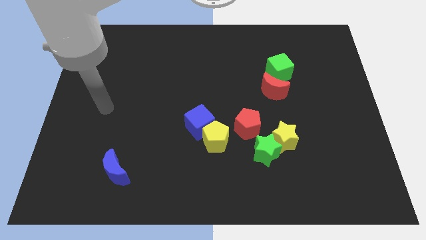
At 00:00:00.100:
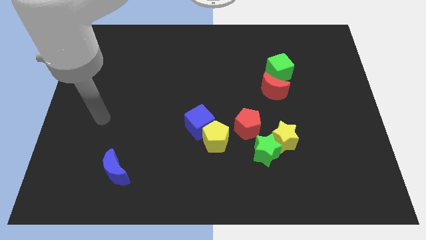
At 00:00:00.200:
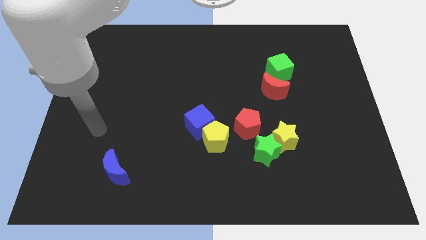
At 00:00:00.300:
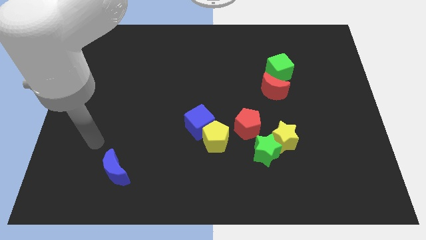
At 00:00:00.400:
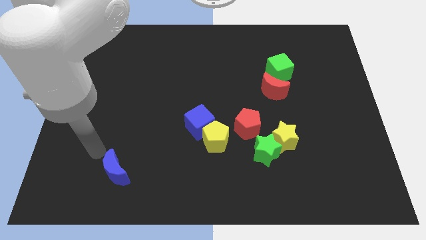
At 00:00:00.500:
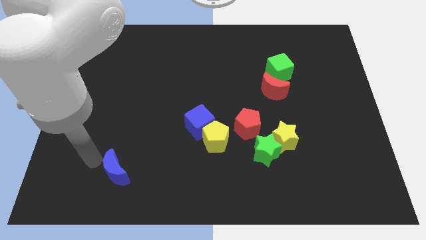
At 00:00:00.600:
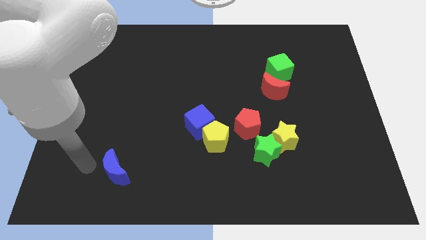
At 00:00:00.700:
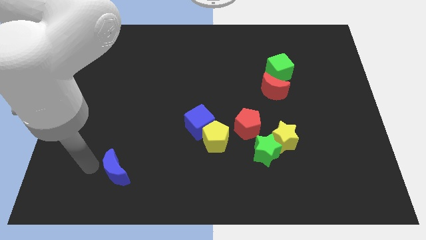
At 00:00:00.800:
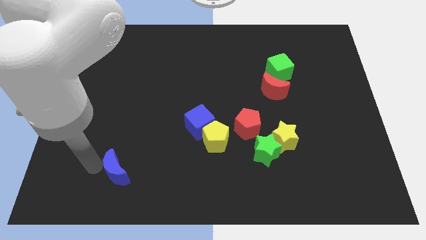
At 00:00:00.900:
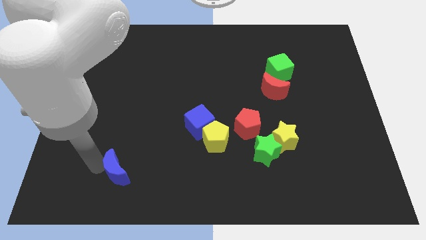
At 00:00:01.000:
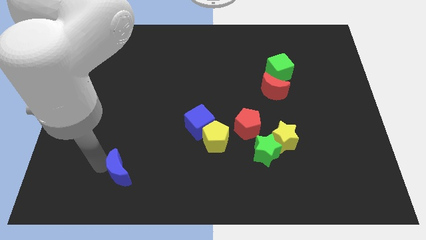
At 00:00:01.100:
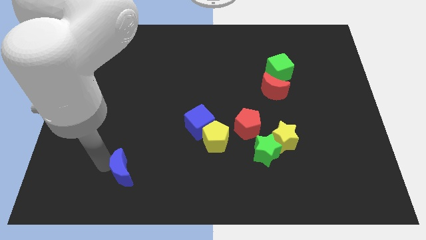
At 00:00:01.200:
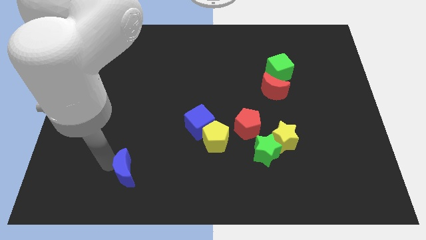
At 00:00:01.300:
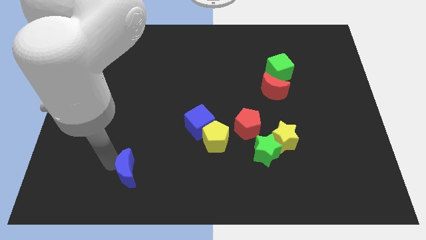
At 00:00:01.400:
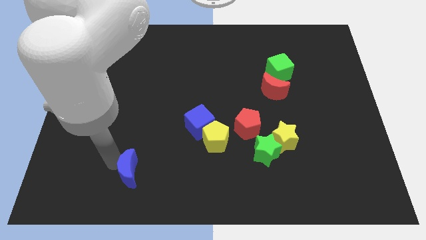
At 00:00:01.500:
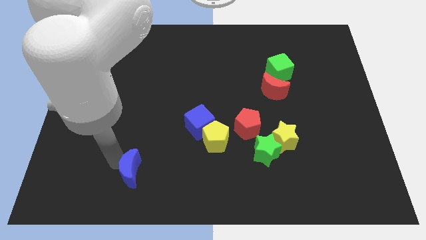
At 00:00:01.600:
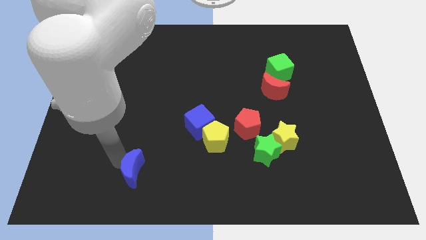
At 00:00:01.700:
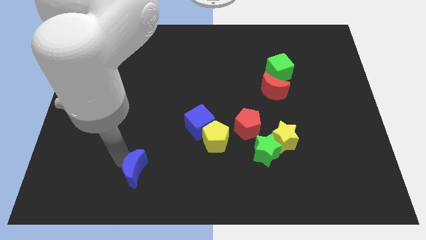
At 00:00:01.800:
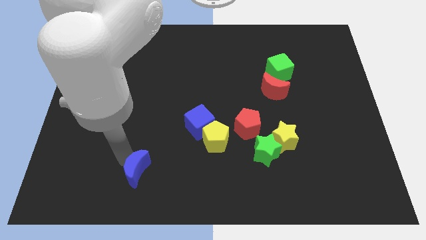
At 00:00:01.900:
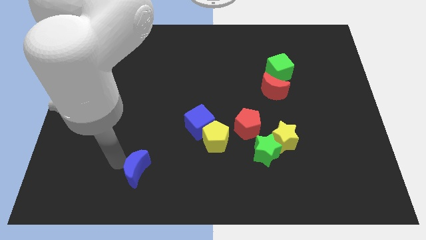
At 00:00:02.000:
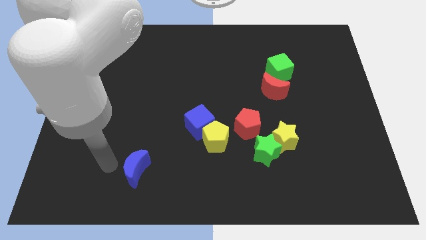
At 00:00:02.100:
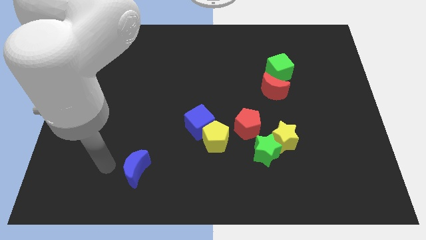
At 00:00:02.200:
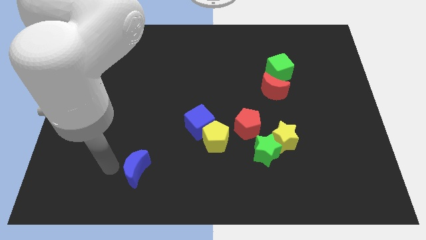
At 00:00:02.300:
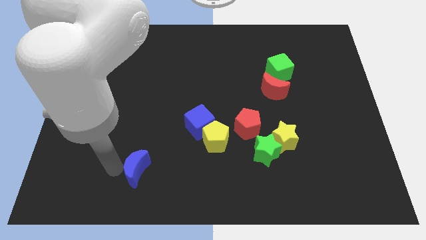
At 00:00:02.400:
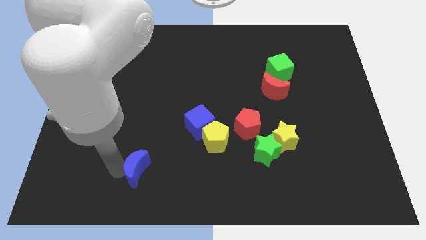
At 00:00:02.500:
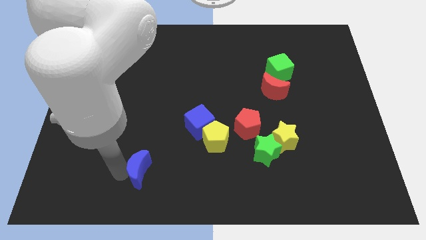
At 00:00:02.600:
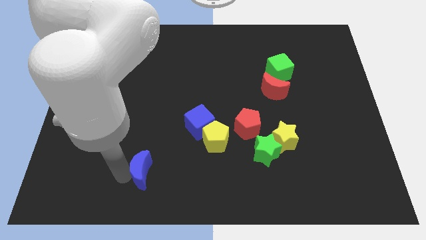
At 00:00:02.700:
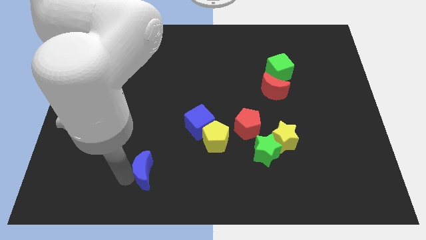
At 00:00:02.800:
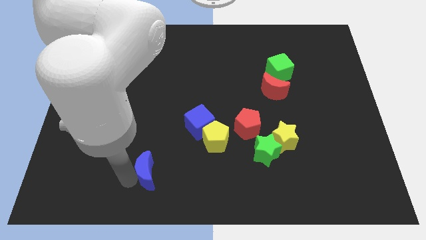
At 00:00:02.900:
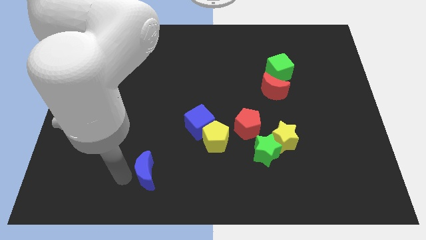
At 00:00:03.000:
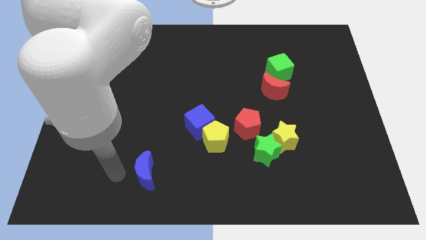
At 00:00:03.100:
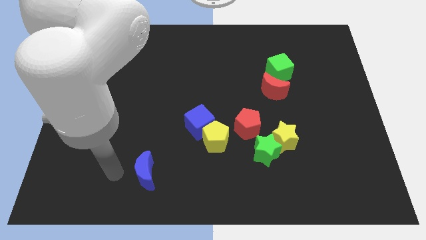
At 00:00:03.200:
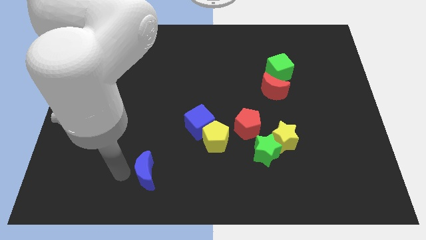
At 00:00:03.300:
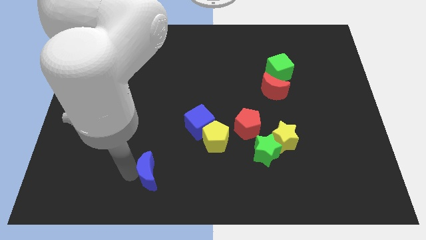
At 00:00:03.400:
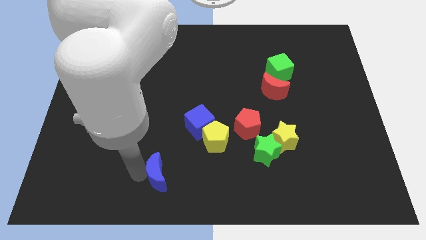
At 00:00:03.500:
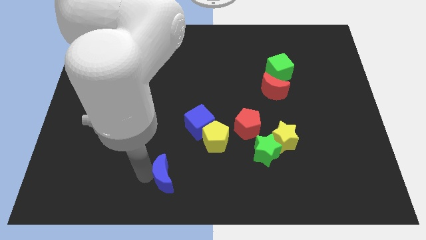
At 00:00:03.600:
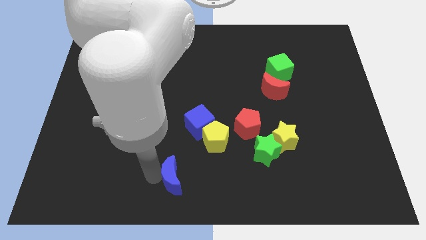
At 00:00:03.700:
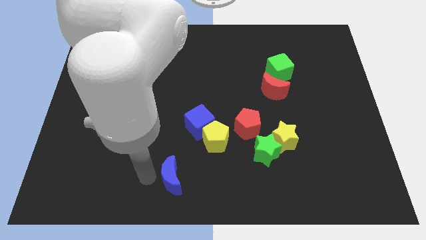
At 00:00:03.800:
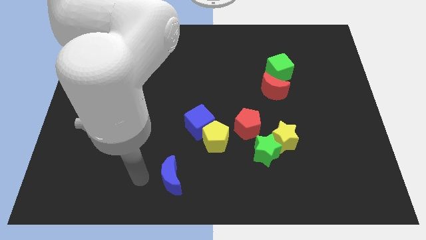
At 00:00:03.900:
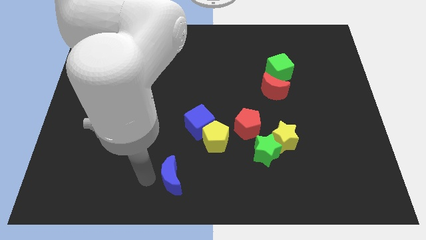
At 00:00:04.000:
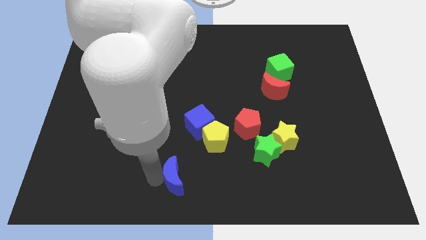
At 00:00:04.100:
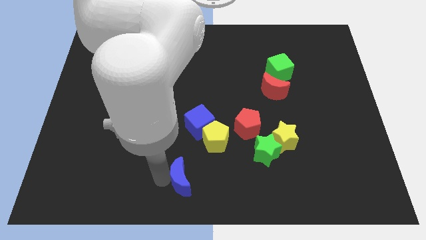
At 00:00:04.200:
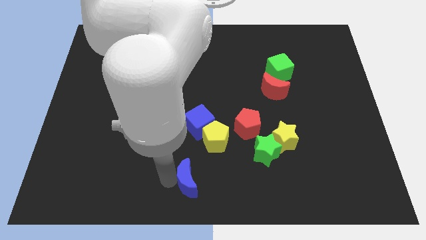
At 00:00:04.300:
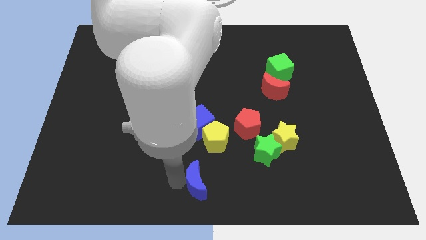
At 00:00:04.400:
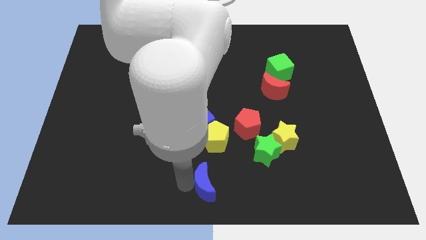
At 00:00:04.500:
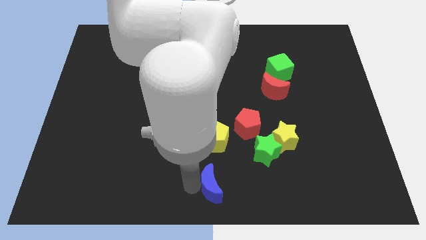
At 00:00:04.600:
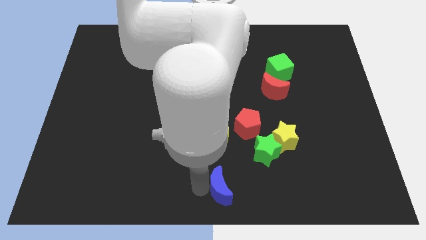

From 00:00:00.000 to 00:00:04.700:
push the blue moon to the right

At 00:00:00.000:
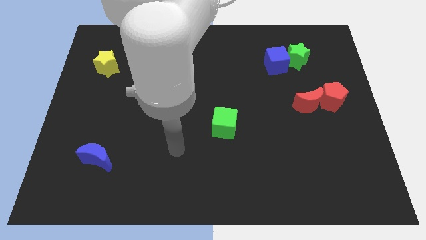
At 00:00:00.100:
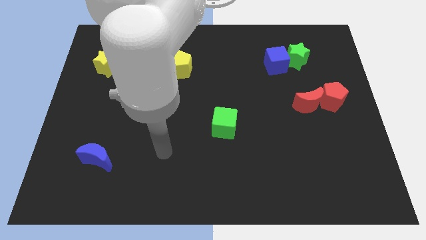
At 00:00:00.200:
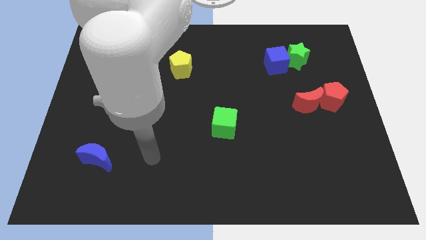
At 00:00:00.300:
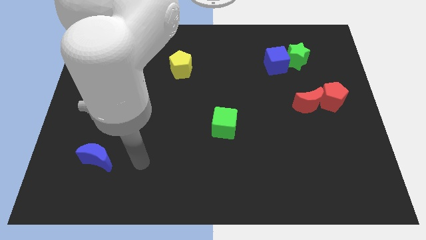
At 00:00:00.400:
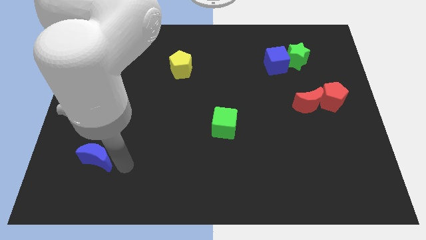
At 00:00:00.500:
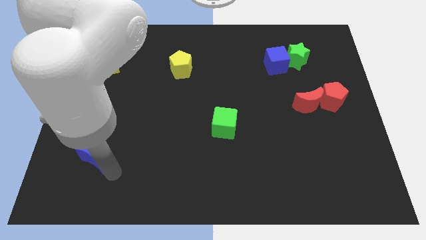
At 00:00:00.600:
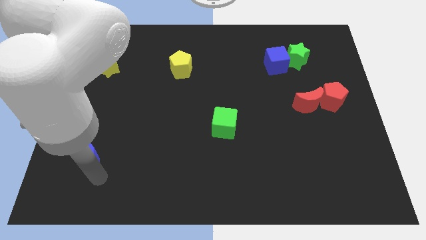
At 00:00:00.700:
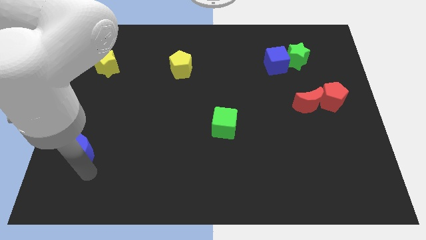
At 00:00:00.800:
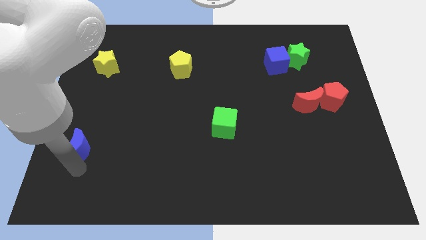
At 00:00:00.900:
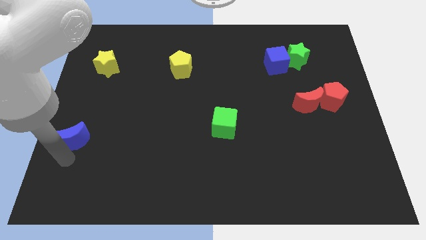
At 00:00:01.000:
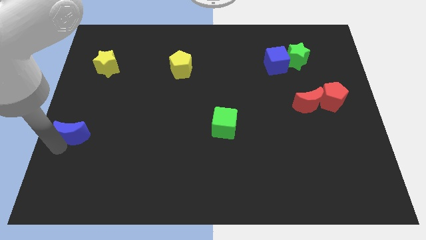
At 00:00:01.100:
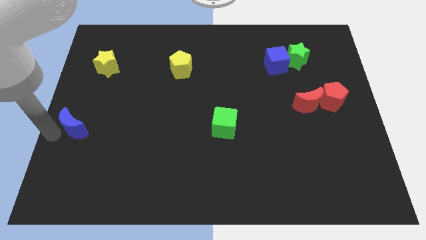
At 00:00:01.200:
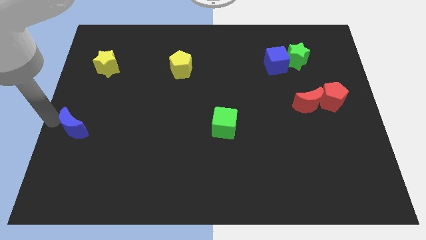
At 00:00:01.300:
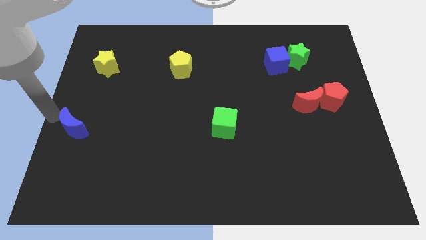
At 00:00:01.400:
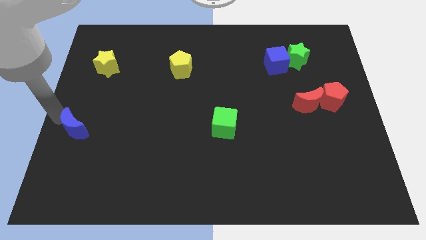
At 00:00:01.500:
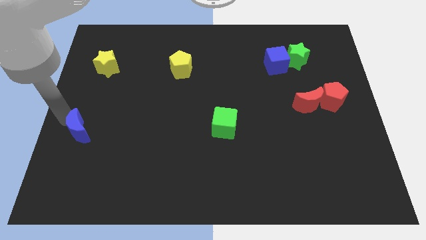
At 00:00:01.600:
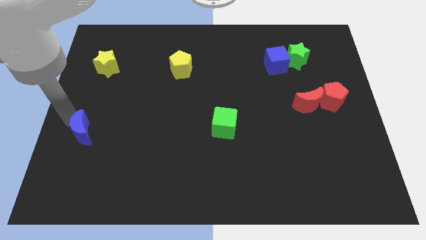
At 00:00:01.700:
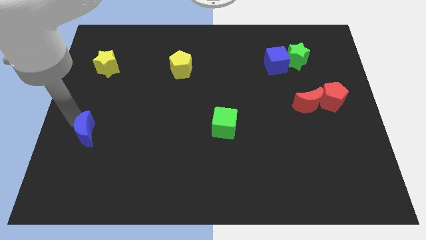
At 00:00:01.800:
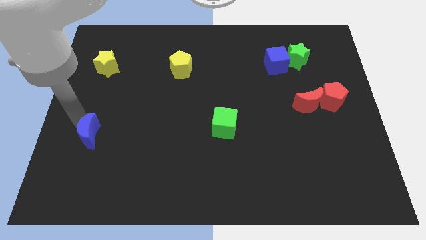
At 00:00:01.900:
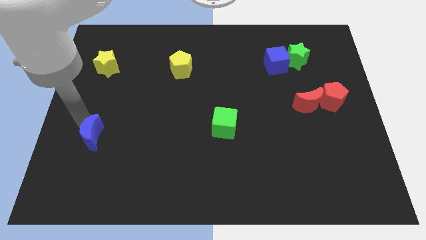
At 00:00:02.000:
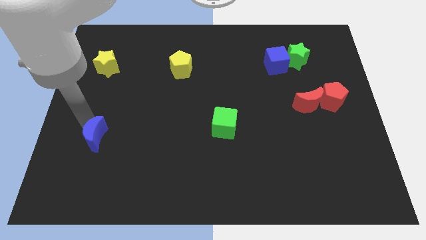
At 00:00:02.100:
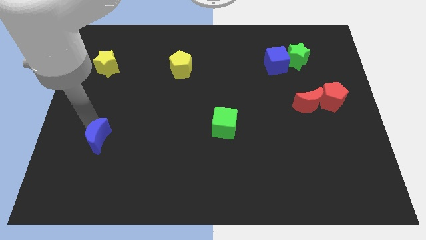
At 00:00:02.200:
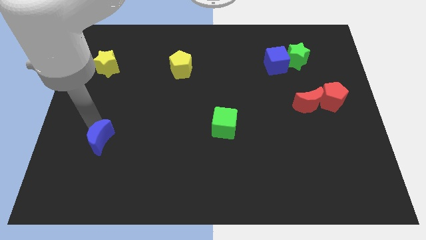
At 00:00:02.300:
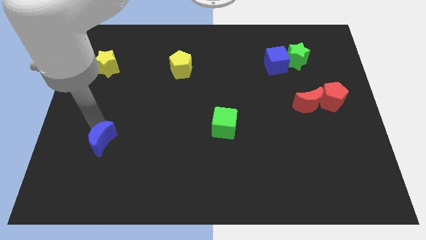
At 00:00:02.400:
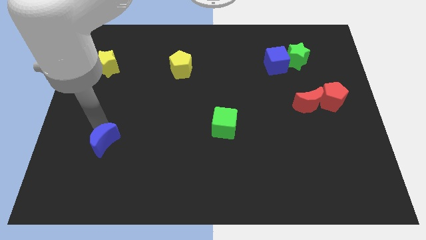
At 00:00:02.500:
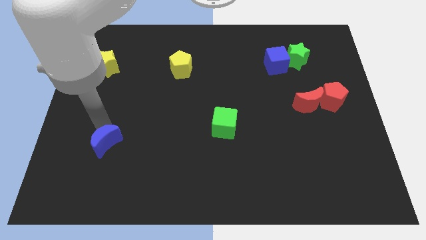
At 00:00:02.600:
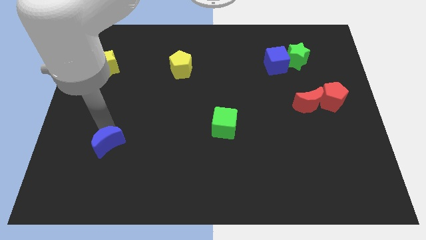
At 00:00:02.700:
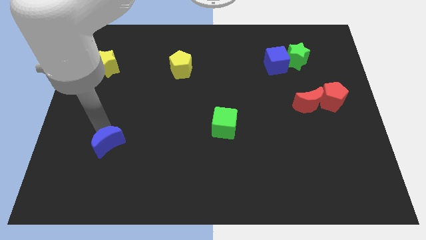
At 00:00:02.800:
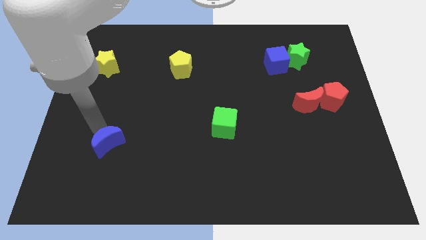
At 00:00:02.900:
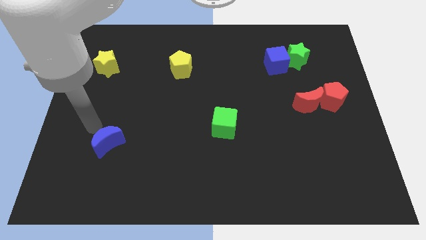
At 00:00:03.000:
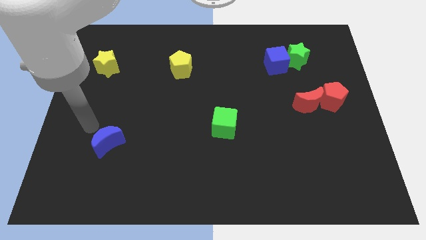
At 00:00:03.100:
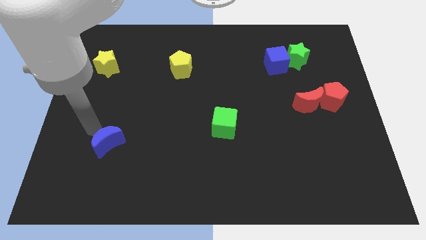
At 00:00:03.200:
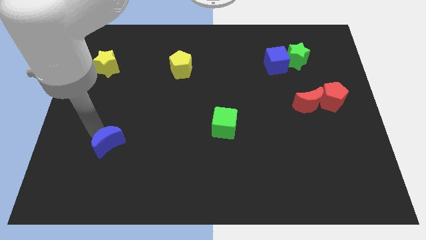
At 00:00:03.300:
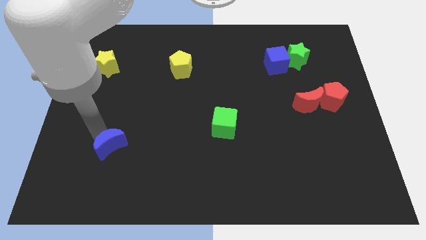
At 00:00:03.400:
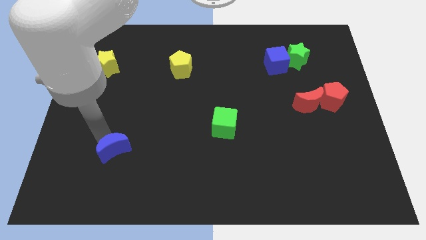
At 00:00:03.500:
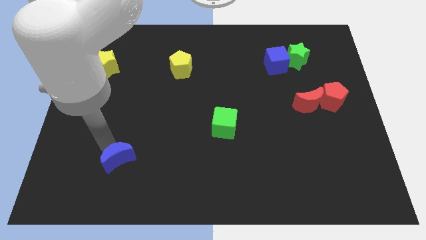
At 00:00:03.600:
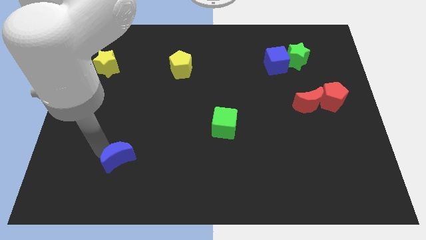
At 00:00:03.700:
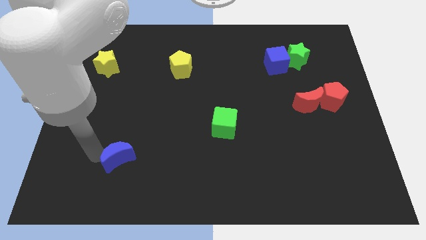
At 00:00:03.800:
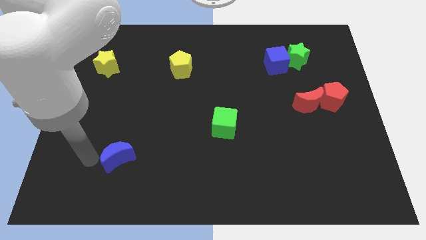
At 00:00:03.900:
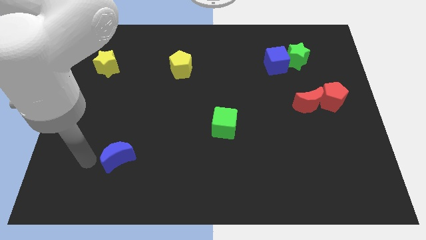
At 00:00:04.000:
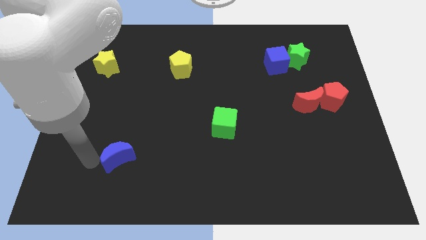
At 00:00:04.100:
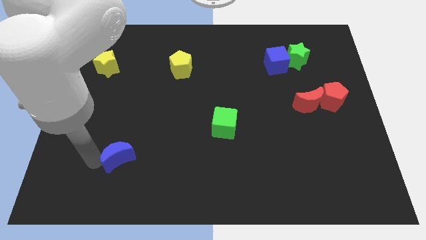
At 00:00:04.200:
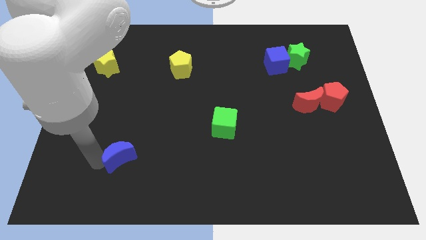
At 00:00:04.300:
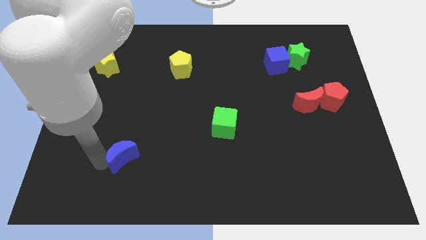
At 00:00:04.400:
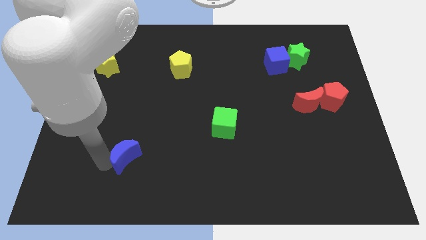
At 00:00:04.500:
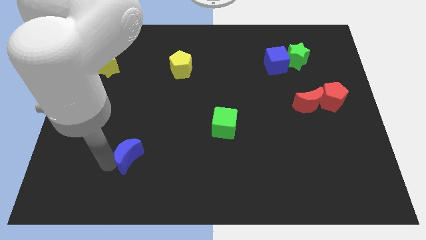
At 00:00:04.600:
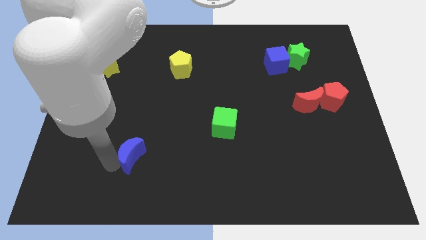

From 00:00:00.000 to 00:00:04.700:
slightly slide the blue moon right
